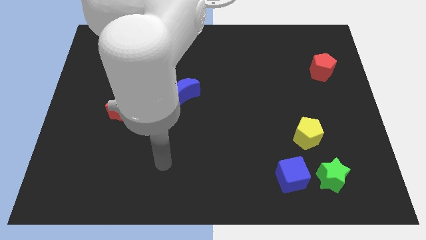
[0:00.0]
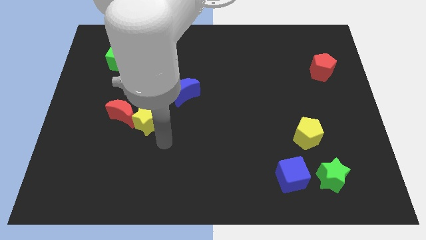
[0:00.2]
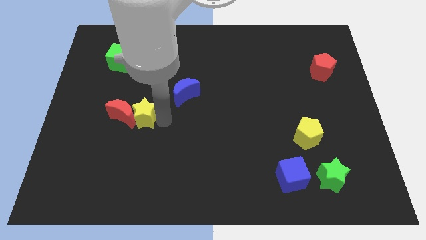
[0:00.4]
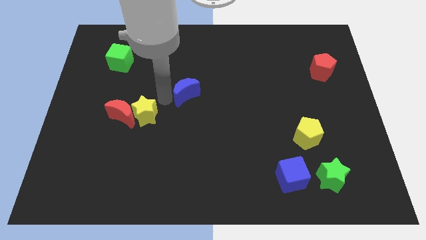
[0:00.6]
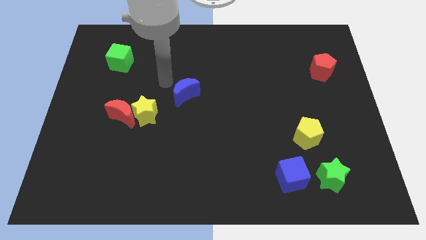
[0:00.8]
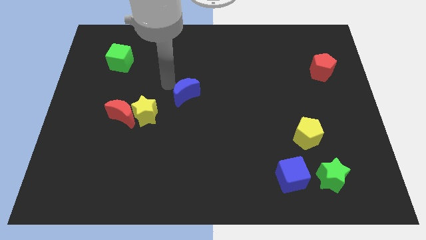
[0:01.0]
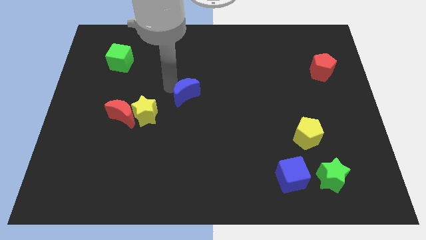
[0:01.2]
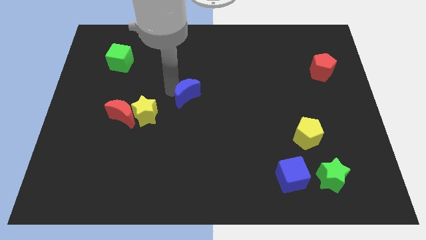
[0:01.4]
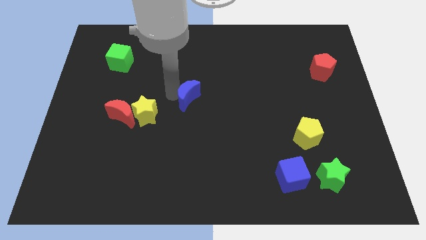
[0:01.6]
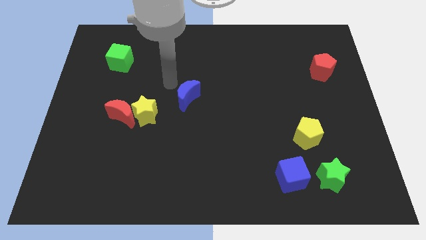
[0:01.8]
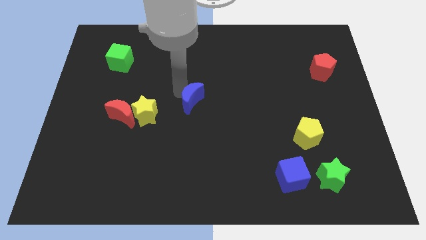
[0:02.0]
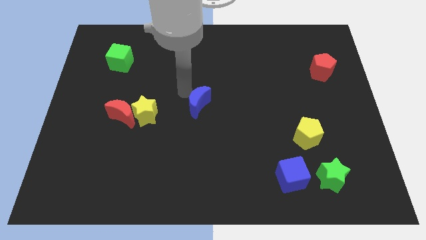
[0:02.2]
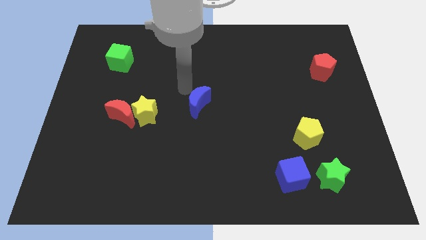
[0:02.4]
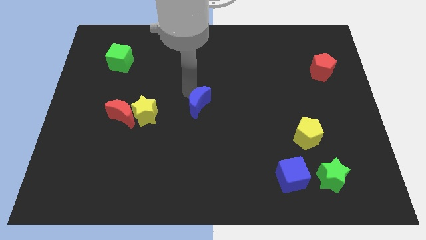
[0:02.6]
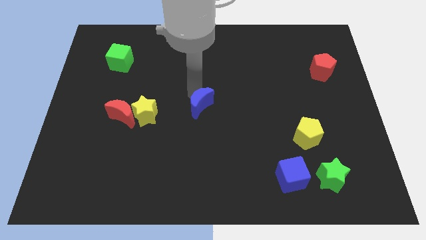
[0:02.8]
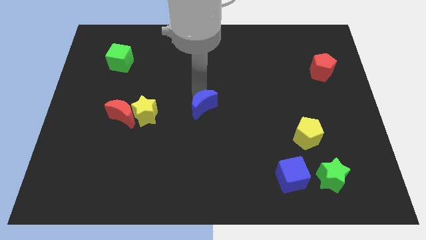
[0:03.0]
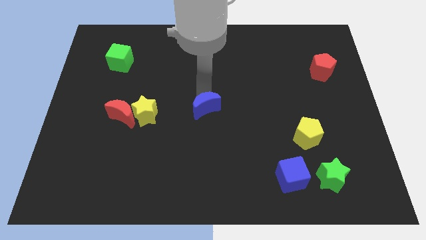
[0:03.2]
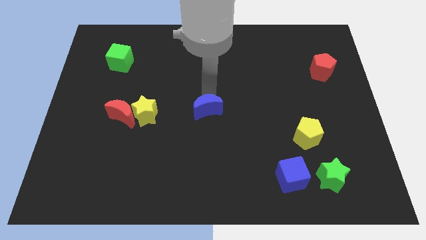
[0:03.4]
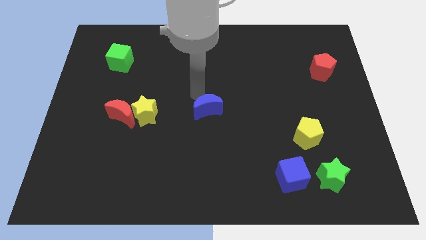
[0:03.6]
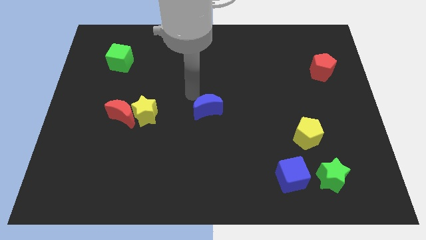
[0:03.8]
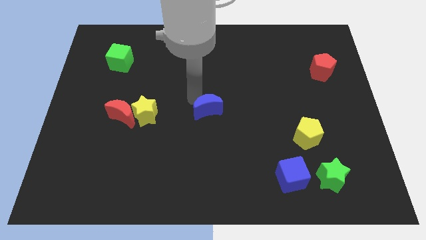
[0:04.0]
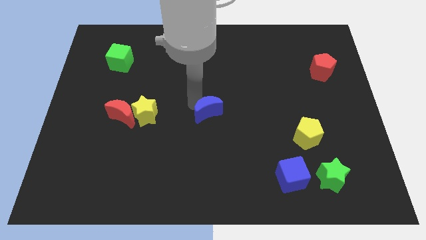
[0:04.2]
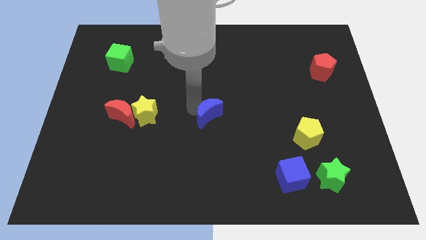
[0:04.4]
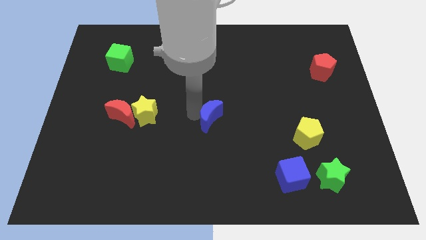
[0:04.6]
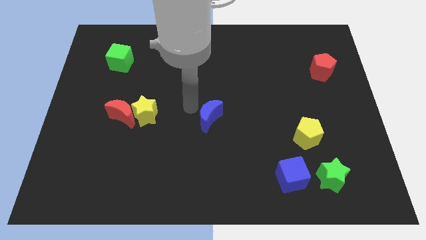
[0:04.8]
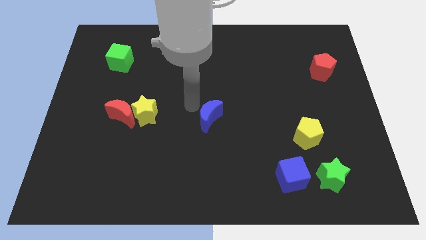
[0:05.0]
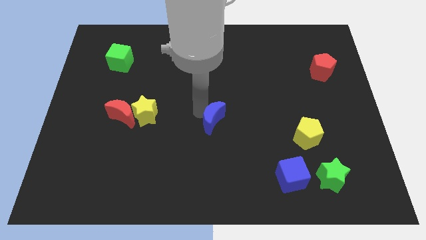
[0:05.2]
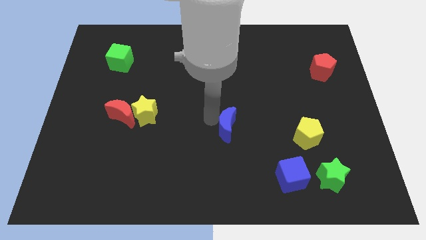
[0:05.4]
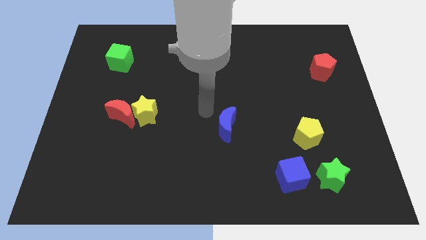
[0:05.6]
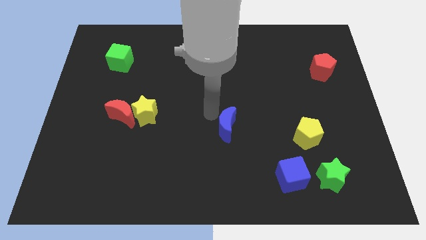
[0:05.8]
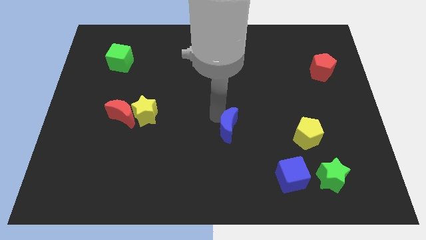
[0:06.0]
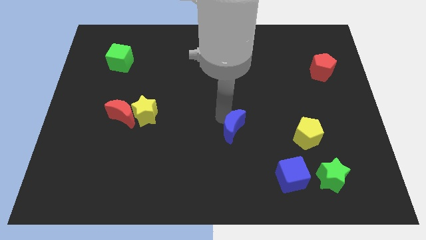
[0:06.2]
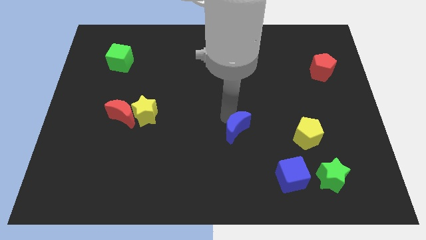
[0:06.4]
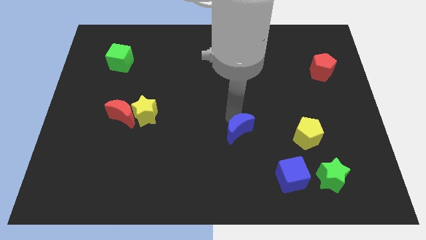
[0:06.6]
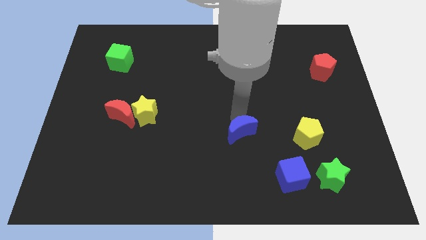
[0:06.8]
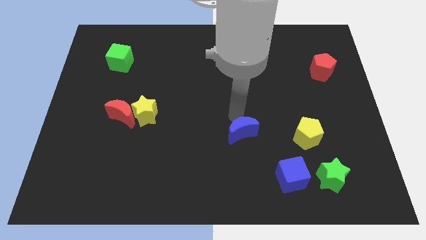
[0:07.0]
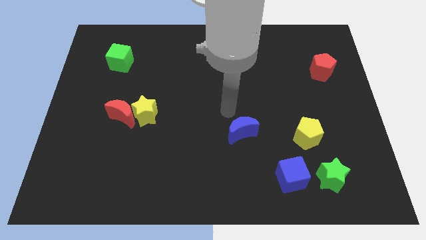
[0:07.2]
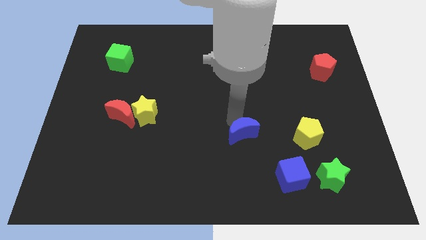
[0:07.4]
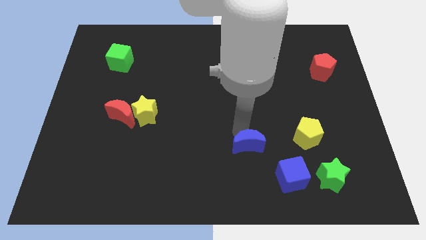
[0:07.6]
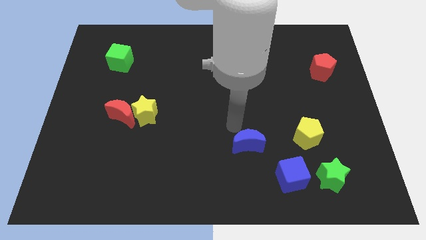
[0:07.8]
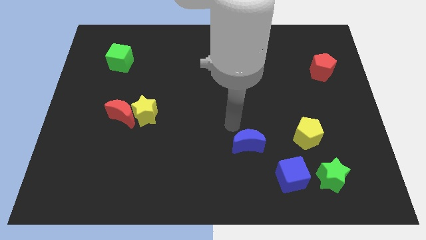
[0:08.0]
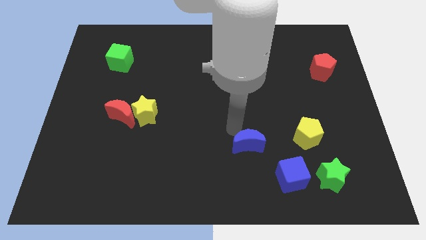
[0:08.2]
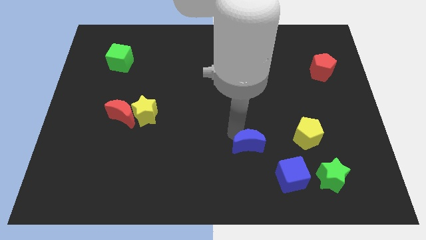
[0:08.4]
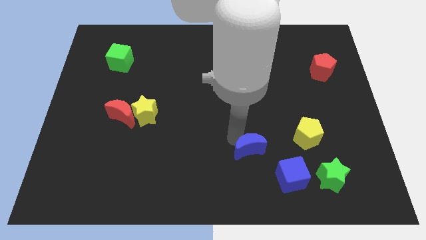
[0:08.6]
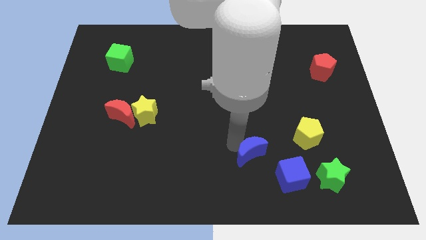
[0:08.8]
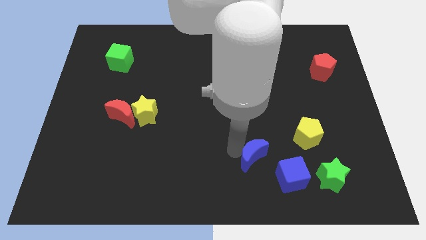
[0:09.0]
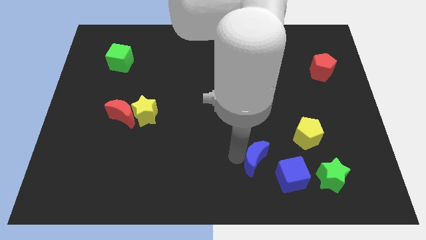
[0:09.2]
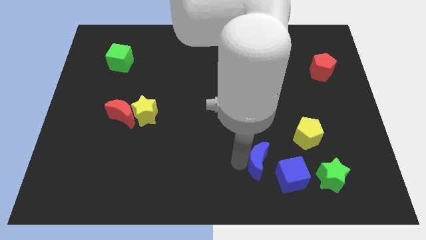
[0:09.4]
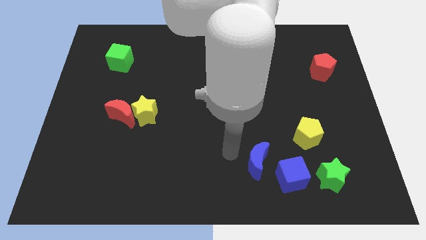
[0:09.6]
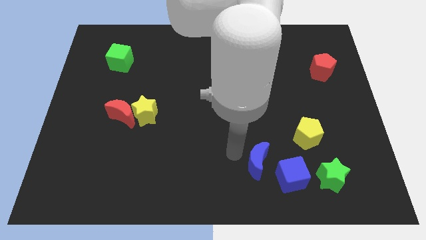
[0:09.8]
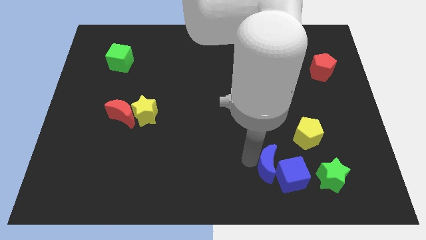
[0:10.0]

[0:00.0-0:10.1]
move the blue moon to the blue cube

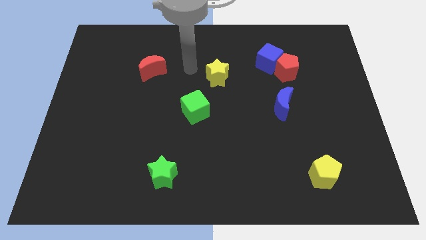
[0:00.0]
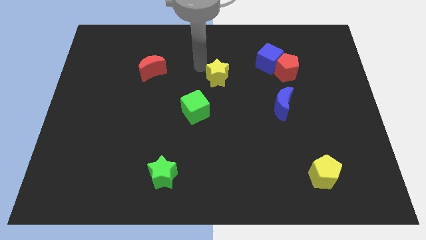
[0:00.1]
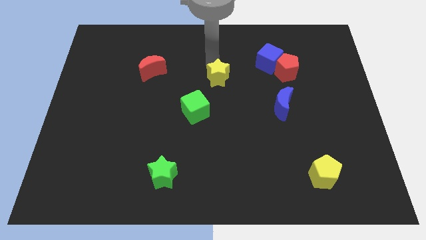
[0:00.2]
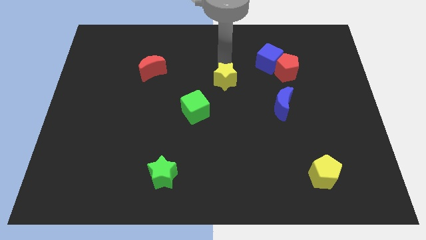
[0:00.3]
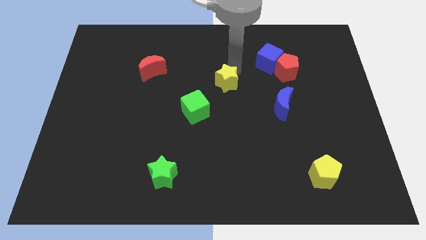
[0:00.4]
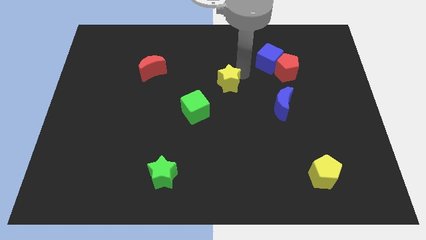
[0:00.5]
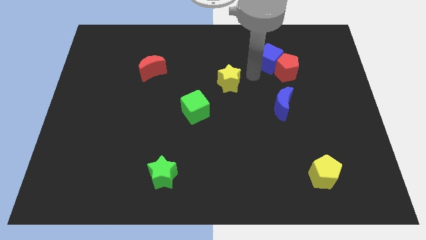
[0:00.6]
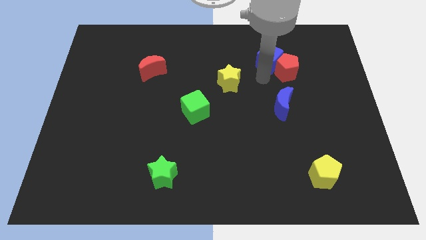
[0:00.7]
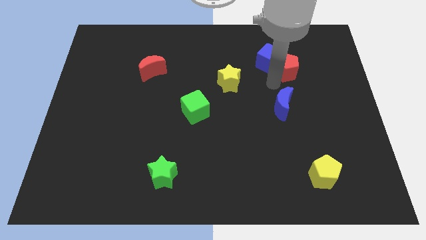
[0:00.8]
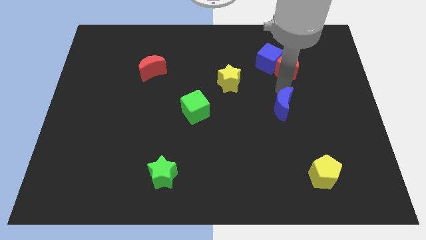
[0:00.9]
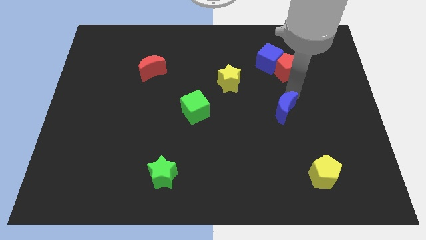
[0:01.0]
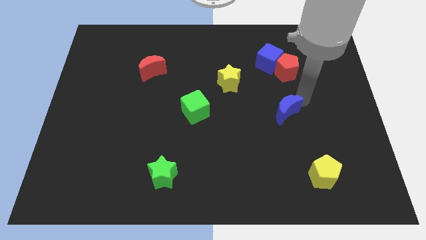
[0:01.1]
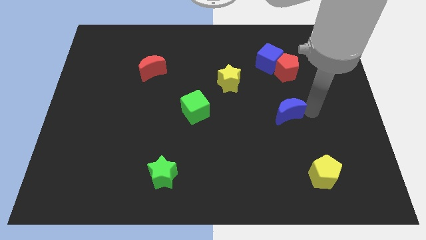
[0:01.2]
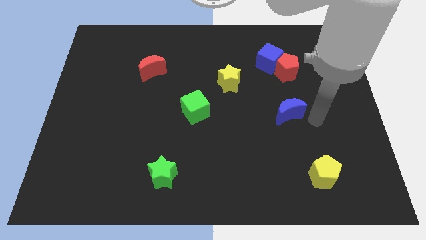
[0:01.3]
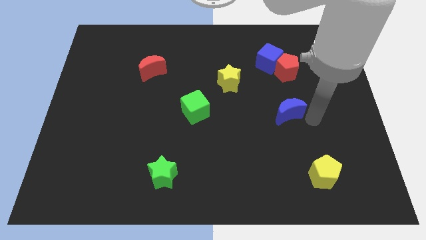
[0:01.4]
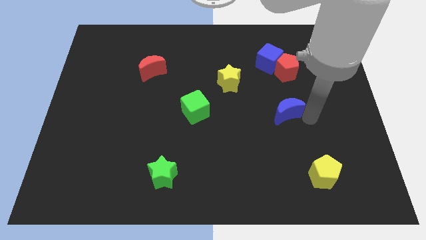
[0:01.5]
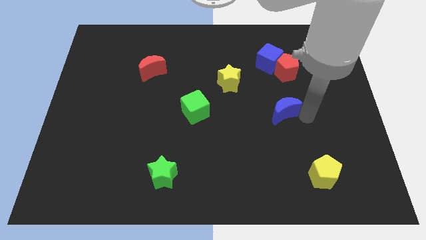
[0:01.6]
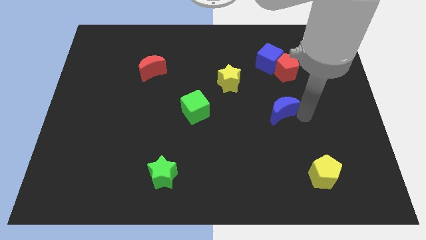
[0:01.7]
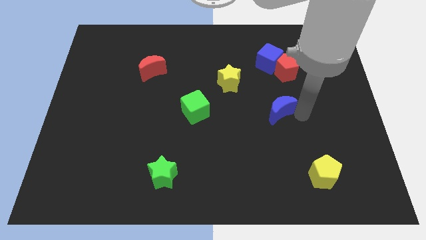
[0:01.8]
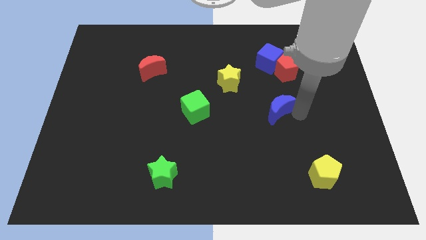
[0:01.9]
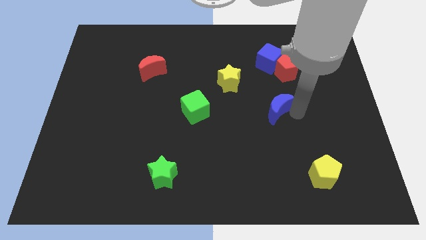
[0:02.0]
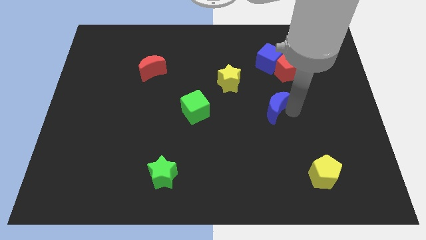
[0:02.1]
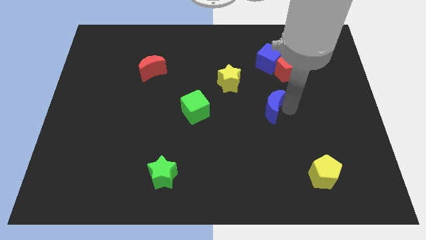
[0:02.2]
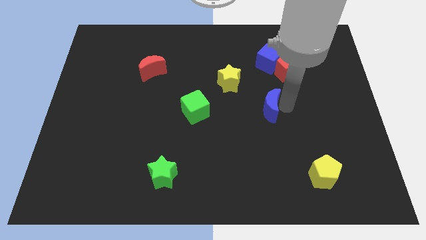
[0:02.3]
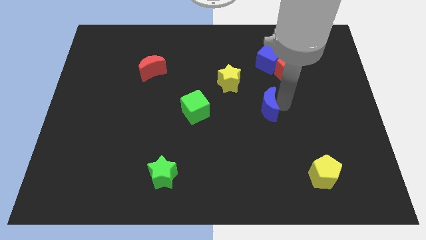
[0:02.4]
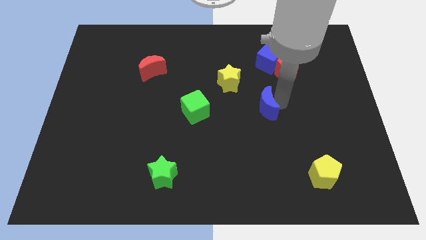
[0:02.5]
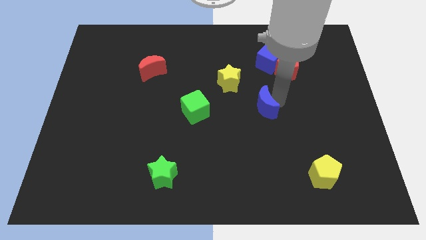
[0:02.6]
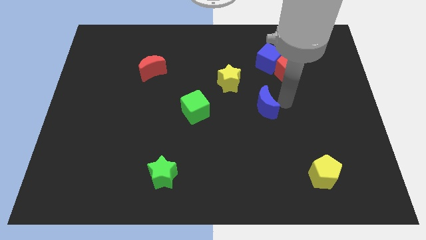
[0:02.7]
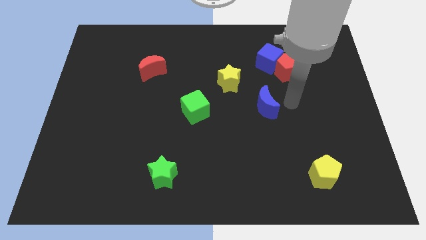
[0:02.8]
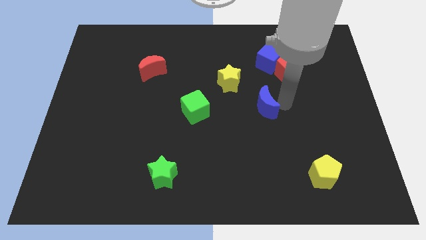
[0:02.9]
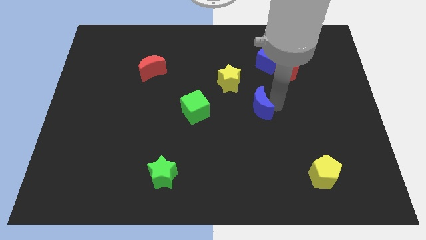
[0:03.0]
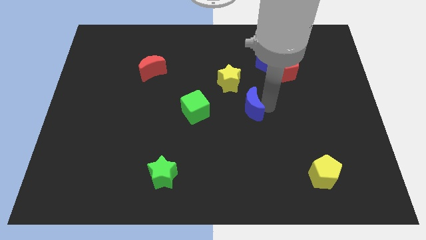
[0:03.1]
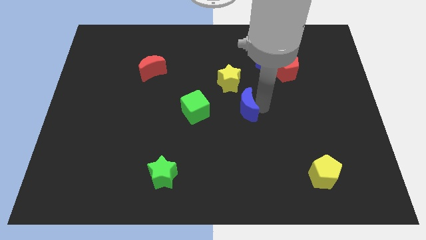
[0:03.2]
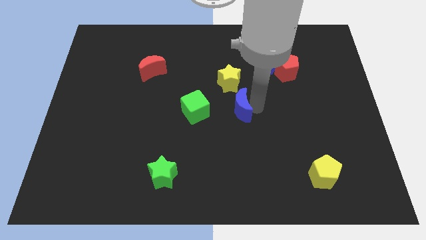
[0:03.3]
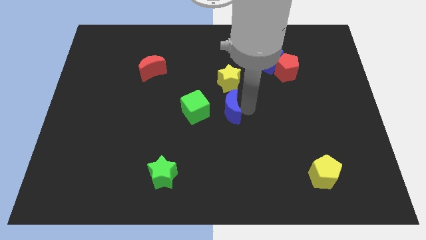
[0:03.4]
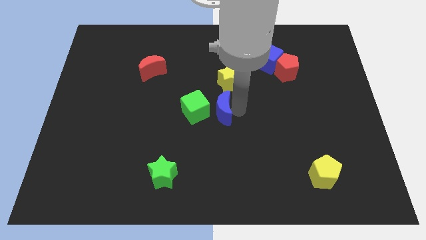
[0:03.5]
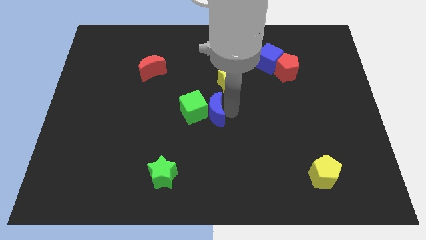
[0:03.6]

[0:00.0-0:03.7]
push the blue moon to the green cube
